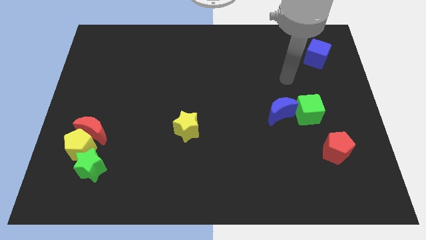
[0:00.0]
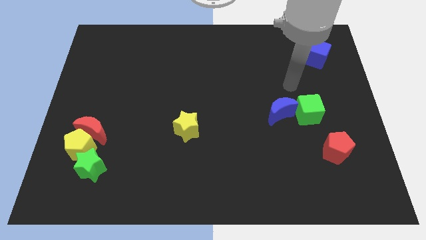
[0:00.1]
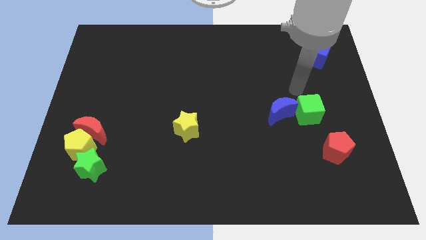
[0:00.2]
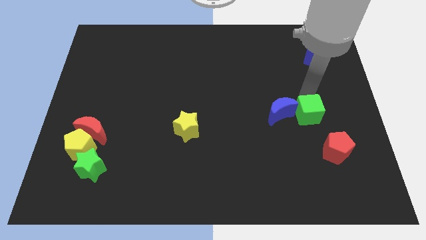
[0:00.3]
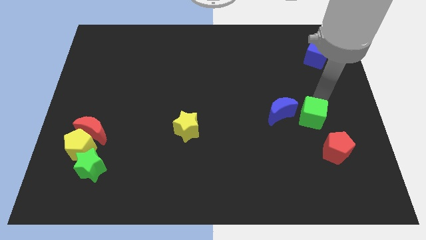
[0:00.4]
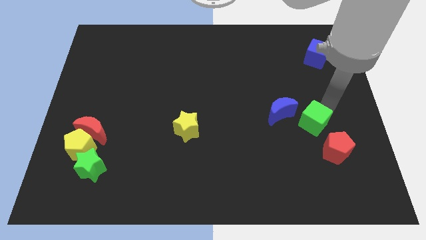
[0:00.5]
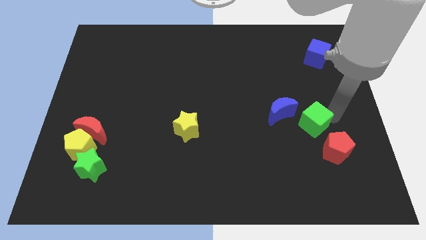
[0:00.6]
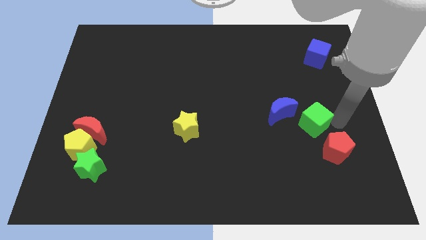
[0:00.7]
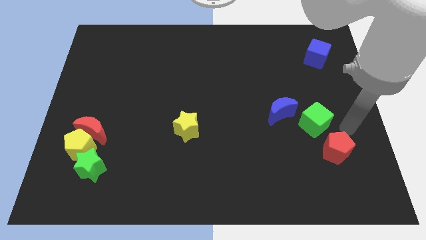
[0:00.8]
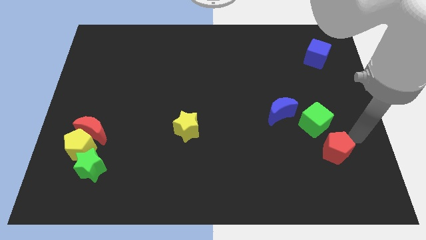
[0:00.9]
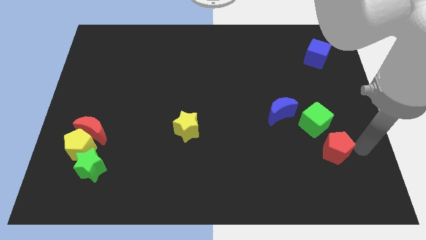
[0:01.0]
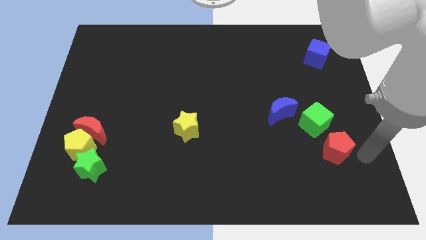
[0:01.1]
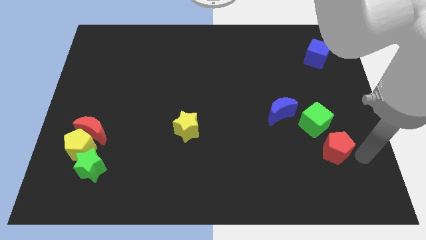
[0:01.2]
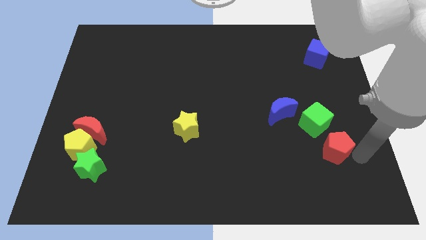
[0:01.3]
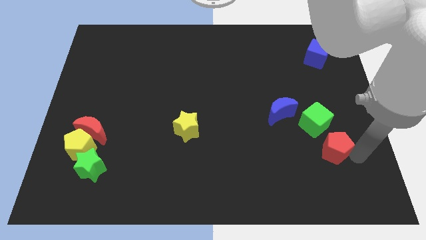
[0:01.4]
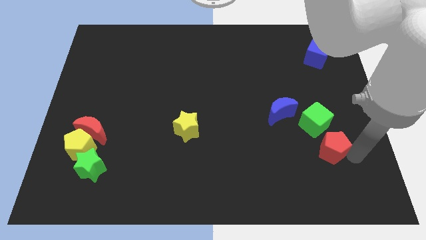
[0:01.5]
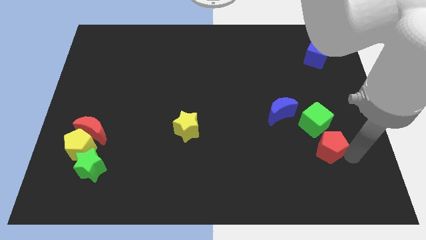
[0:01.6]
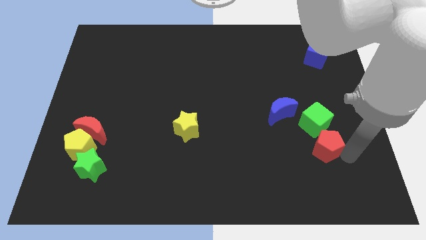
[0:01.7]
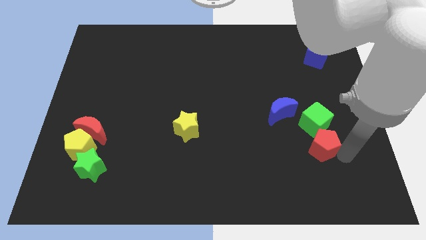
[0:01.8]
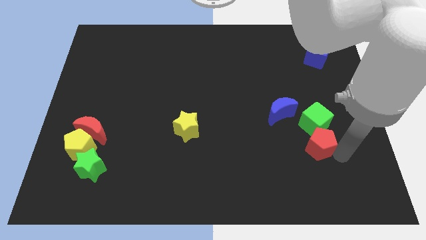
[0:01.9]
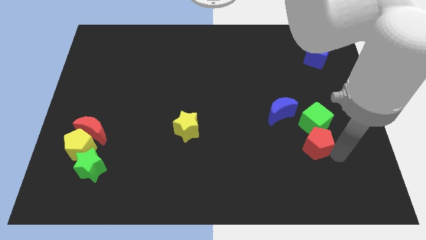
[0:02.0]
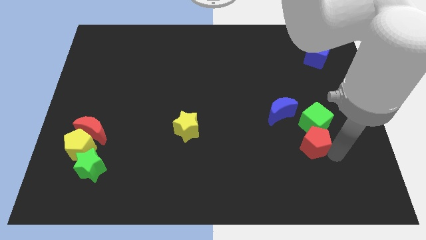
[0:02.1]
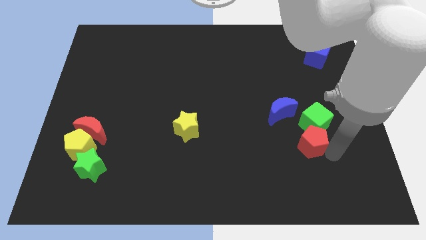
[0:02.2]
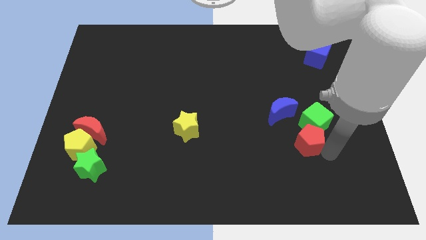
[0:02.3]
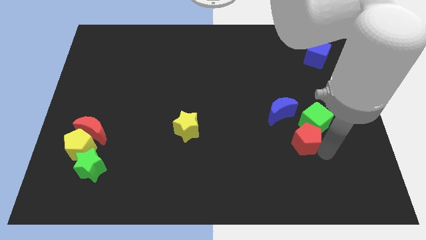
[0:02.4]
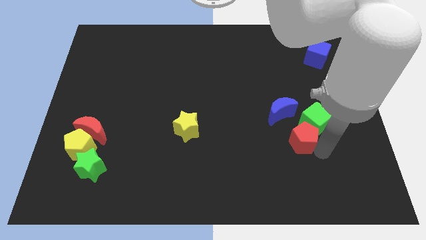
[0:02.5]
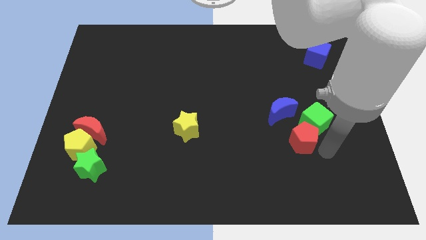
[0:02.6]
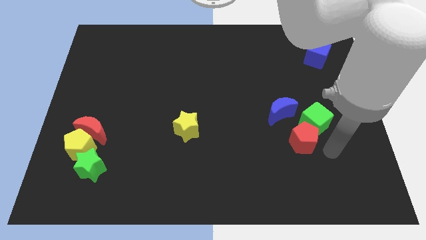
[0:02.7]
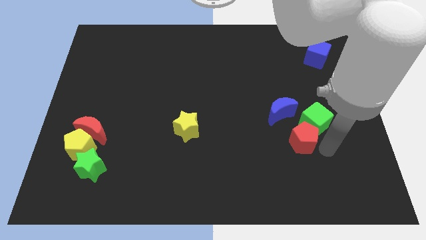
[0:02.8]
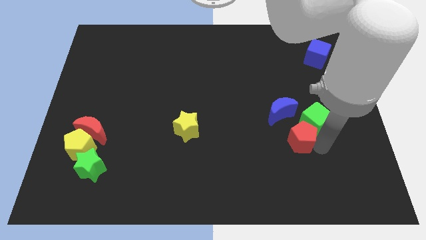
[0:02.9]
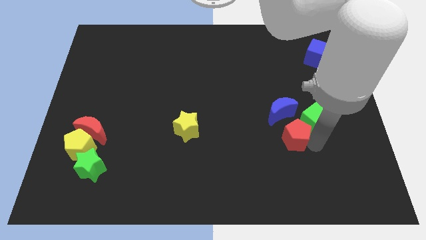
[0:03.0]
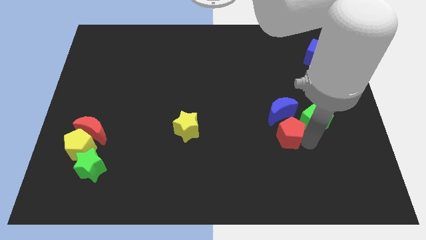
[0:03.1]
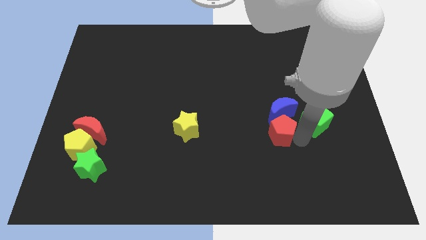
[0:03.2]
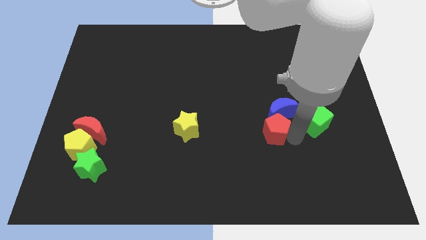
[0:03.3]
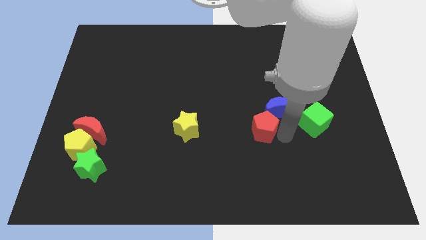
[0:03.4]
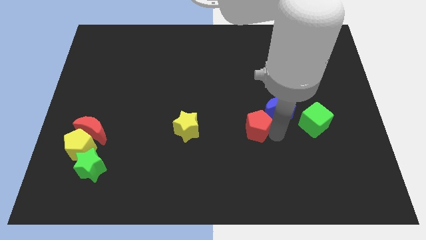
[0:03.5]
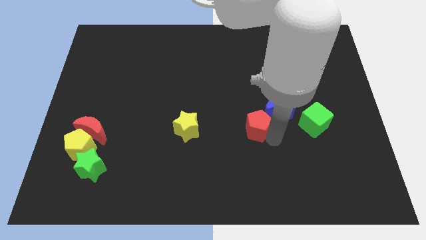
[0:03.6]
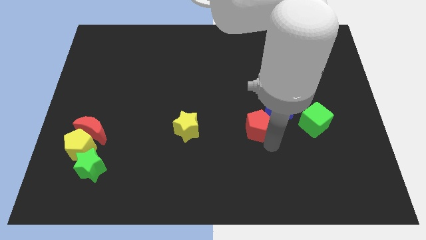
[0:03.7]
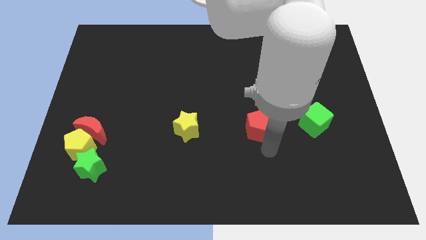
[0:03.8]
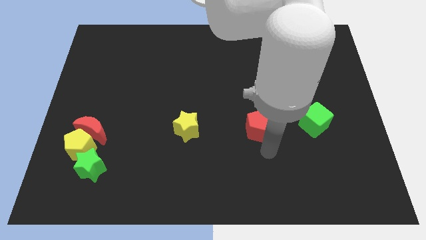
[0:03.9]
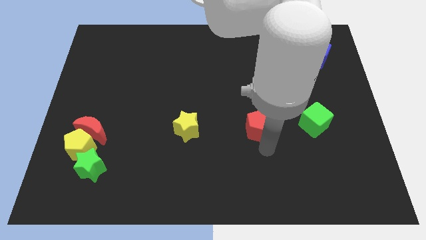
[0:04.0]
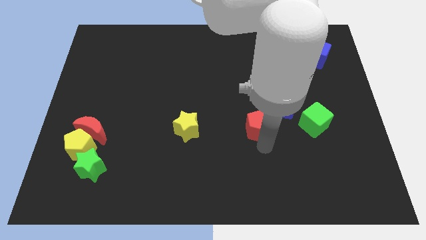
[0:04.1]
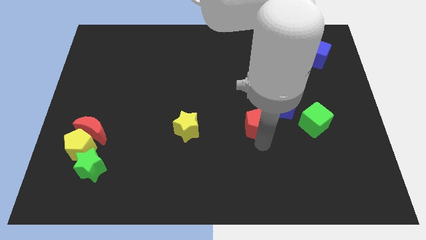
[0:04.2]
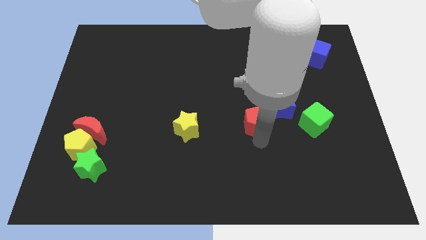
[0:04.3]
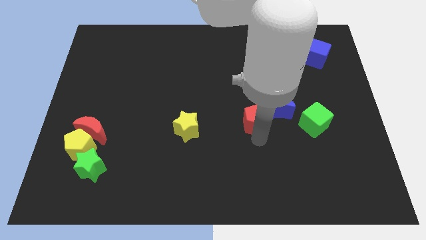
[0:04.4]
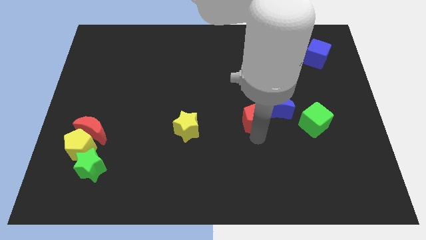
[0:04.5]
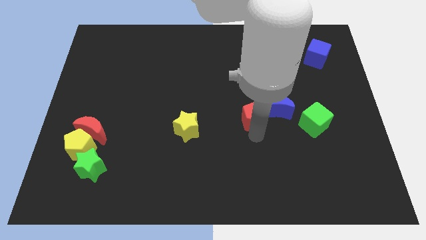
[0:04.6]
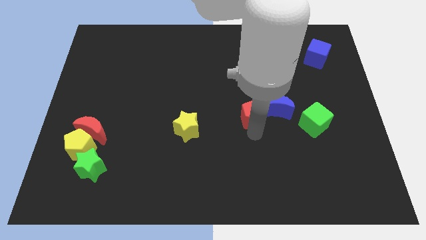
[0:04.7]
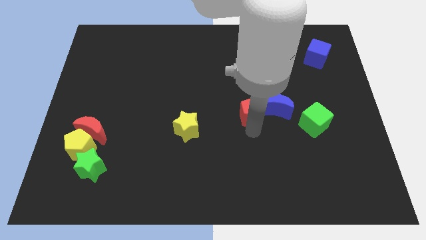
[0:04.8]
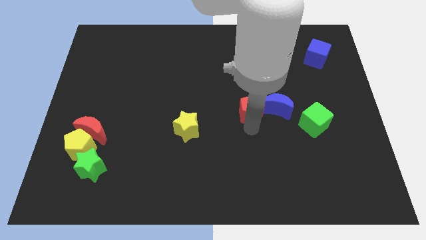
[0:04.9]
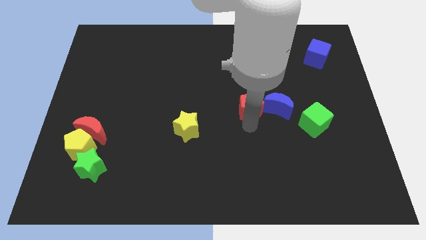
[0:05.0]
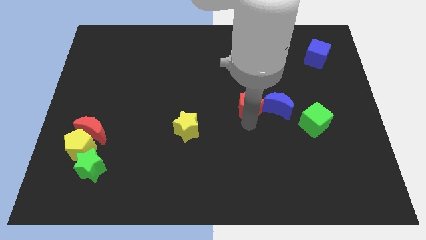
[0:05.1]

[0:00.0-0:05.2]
move the red pentagon up and to the left diagonally

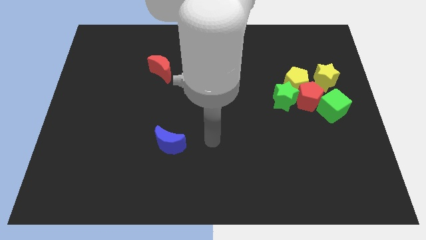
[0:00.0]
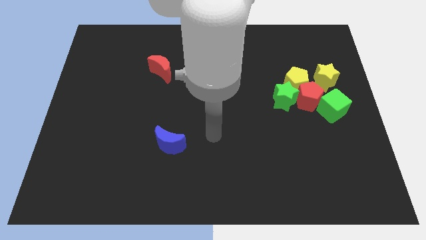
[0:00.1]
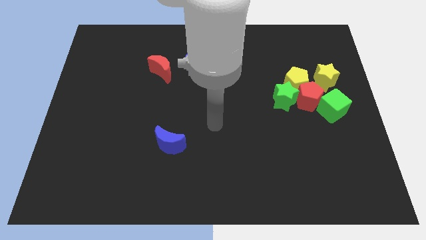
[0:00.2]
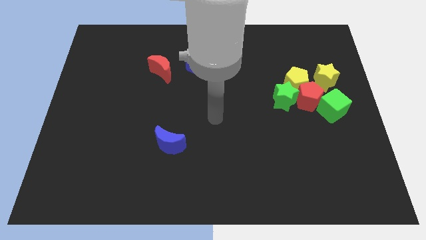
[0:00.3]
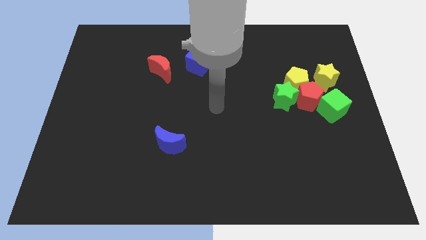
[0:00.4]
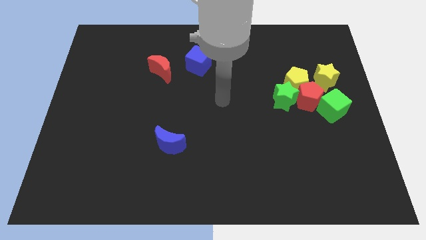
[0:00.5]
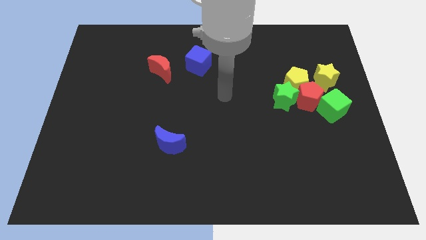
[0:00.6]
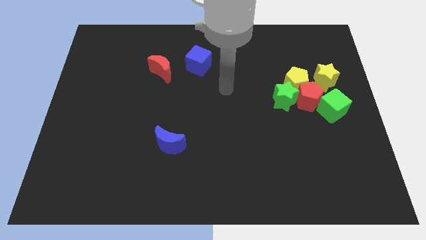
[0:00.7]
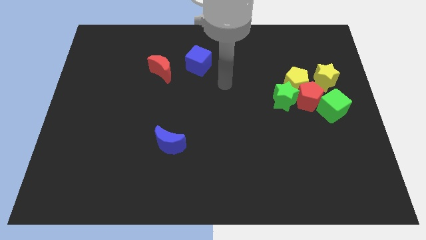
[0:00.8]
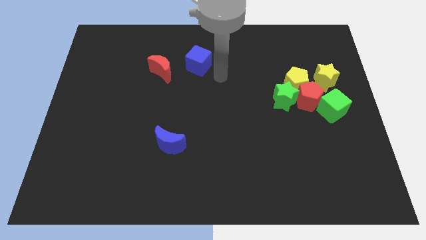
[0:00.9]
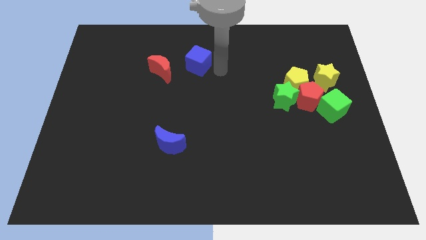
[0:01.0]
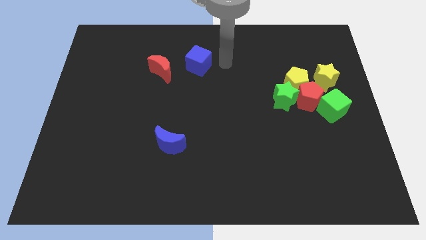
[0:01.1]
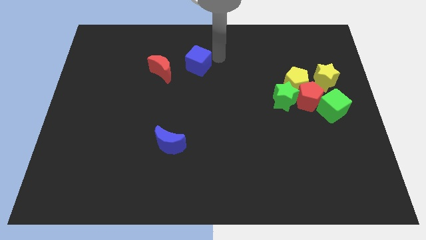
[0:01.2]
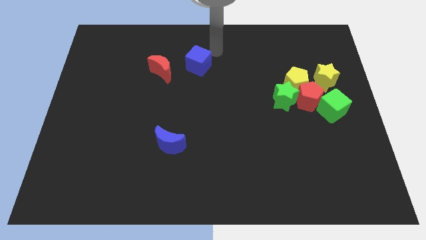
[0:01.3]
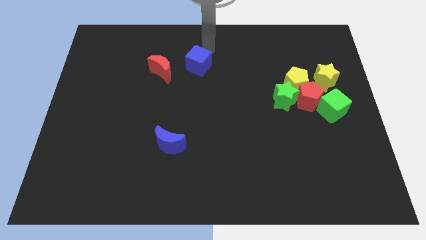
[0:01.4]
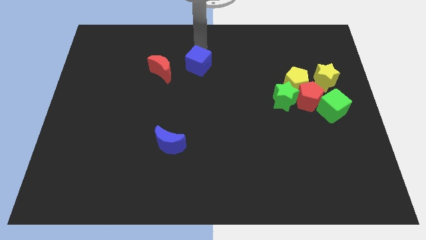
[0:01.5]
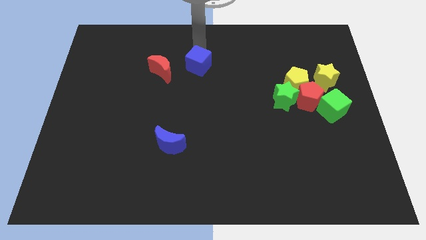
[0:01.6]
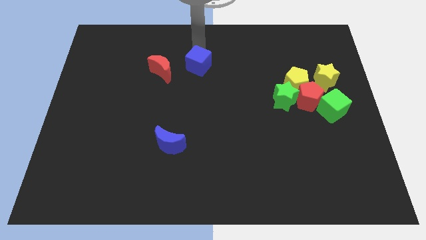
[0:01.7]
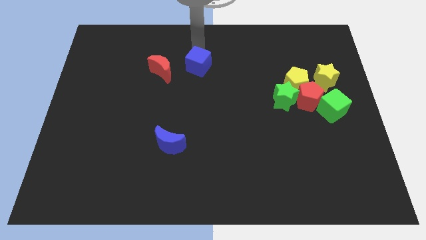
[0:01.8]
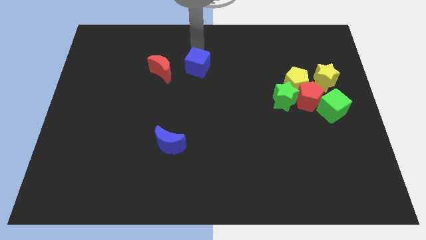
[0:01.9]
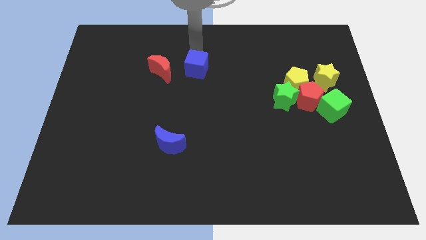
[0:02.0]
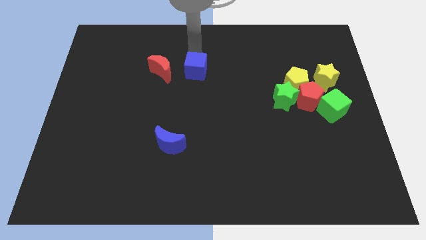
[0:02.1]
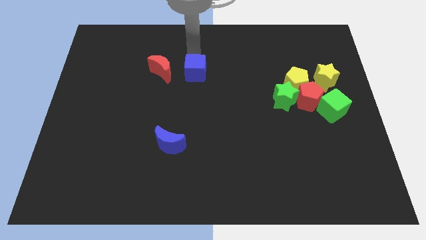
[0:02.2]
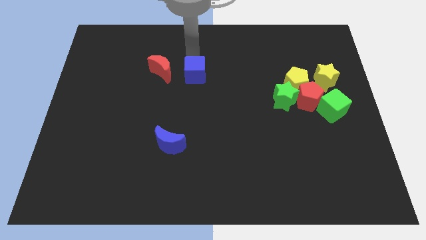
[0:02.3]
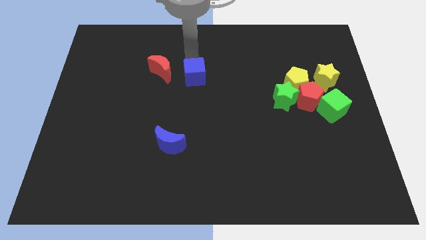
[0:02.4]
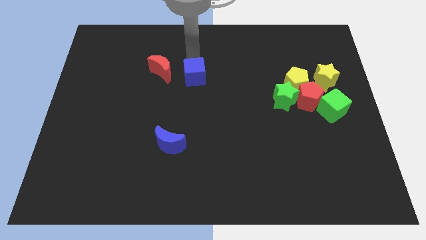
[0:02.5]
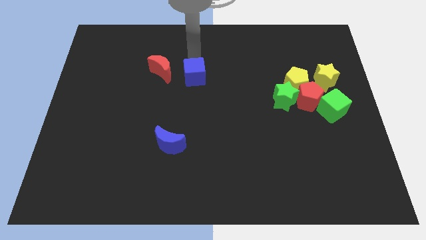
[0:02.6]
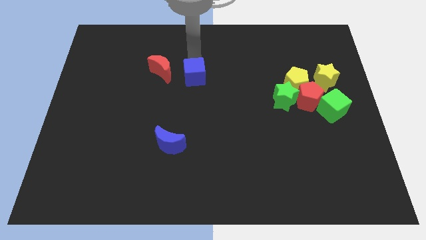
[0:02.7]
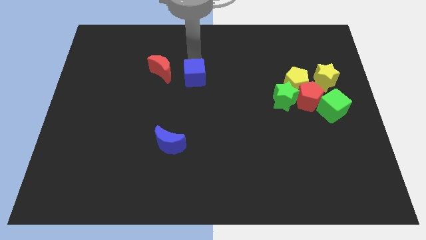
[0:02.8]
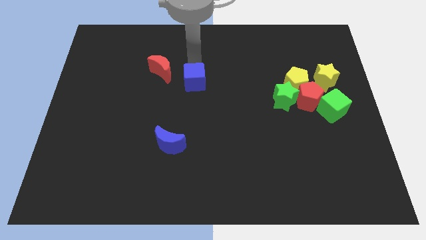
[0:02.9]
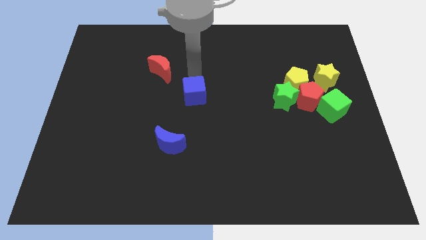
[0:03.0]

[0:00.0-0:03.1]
slightly push the blue cube down

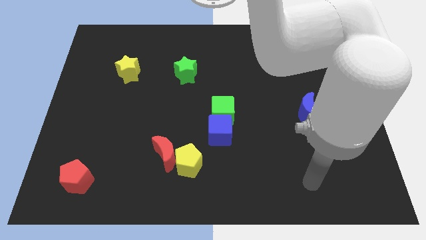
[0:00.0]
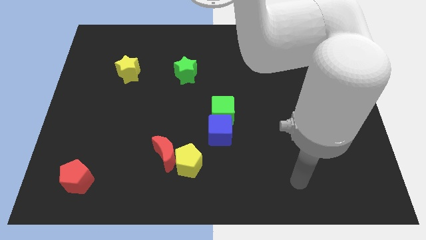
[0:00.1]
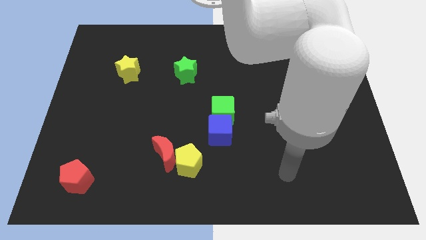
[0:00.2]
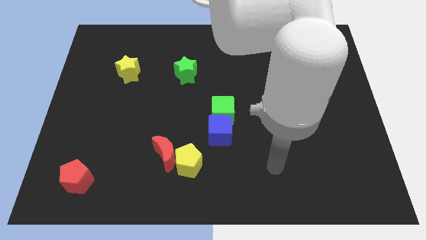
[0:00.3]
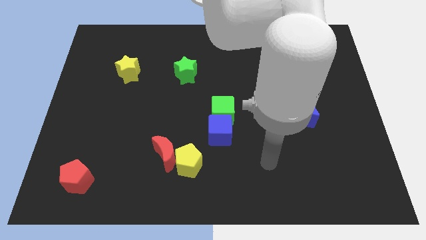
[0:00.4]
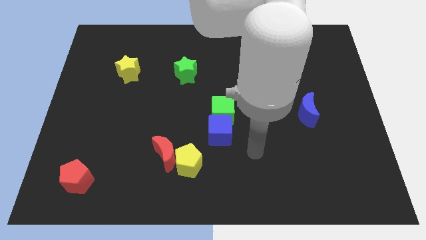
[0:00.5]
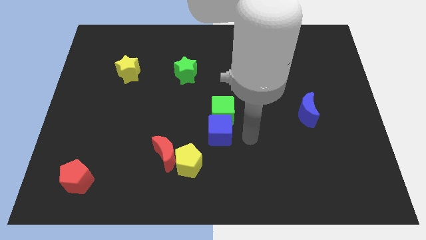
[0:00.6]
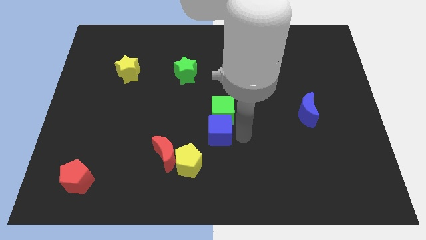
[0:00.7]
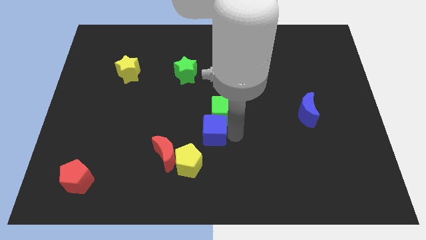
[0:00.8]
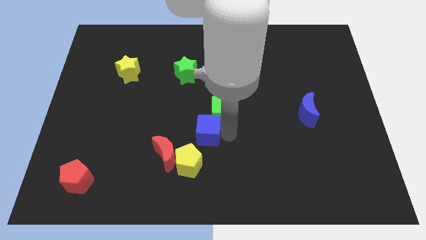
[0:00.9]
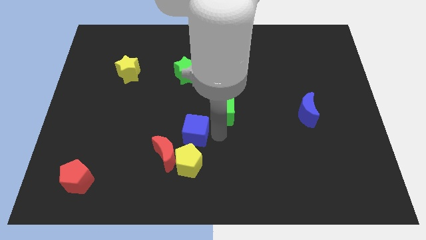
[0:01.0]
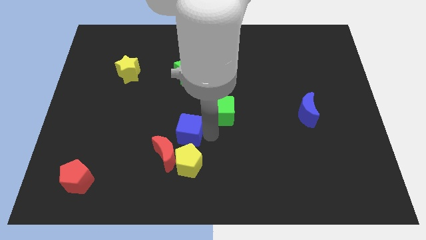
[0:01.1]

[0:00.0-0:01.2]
move the blue cube left a little
